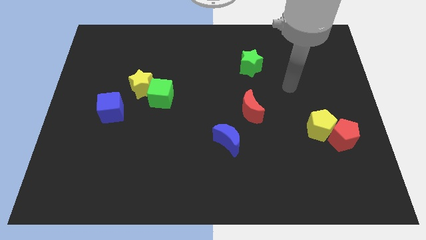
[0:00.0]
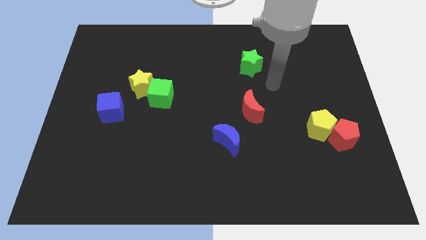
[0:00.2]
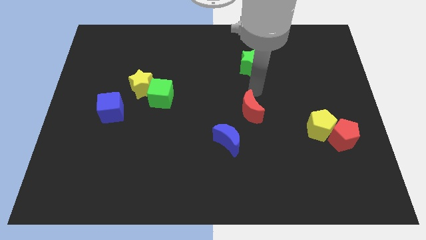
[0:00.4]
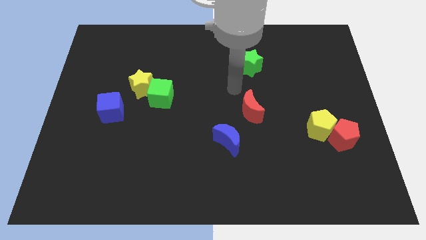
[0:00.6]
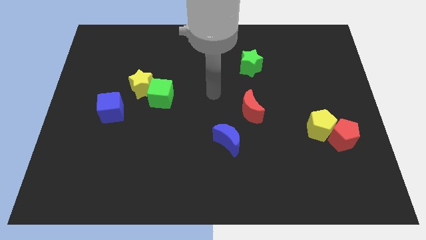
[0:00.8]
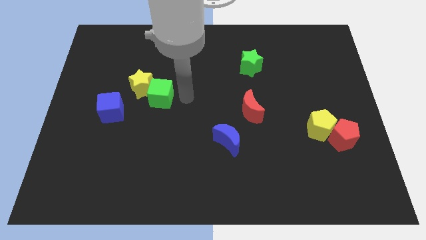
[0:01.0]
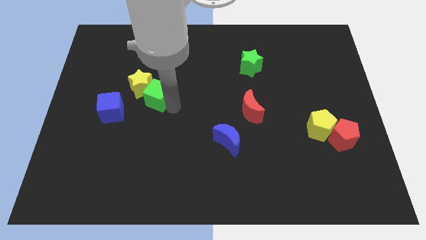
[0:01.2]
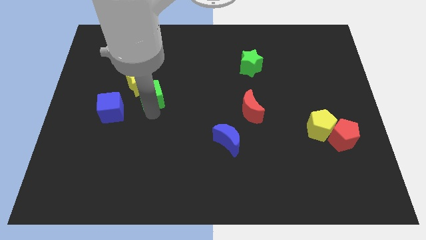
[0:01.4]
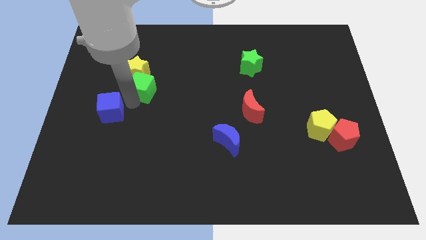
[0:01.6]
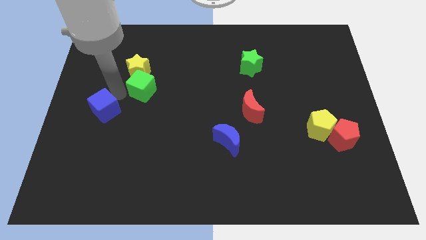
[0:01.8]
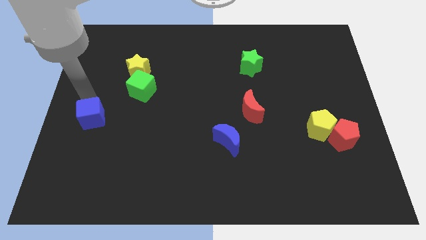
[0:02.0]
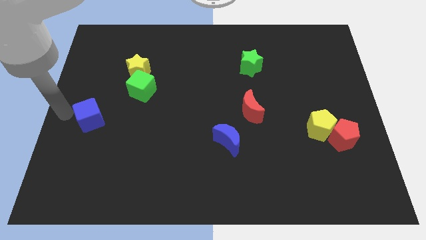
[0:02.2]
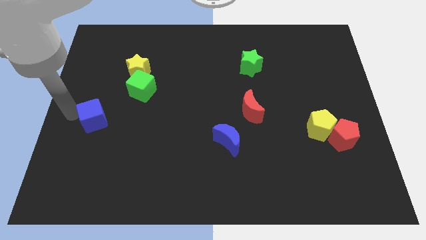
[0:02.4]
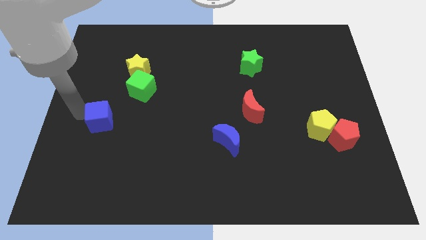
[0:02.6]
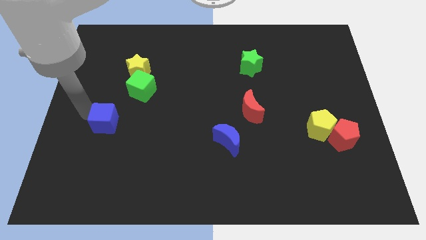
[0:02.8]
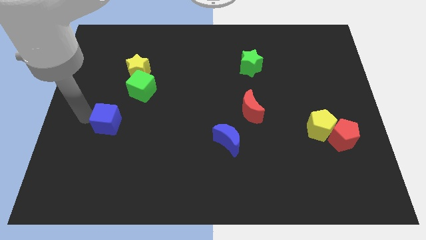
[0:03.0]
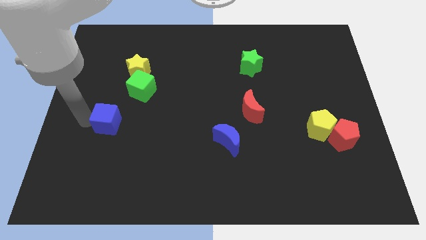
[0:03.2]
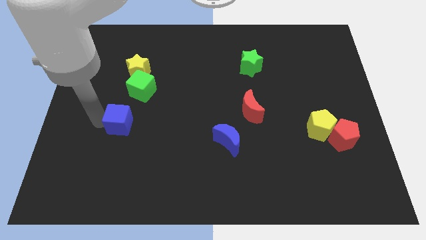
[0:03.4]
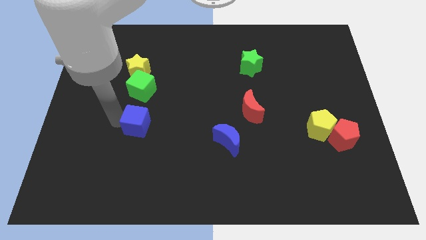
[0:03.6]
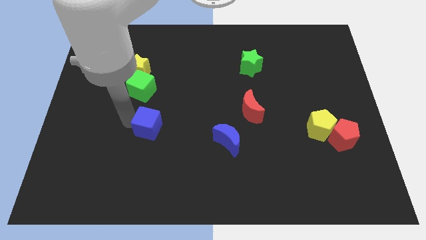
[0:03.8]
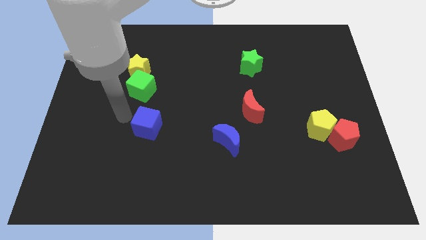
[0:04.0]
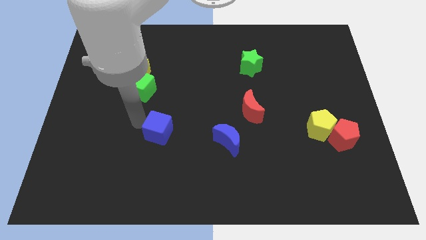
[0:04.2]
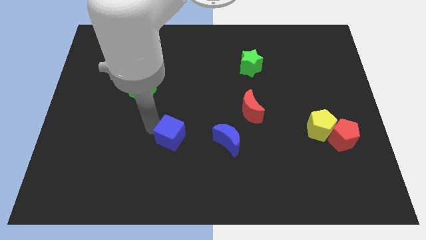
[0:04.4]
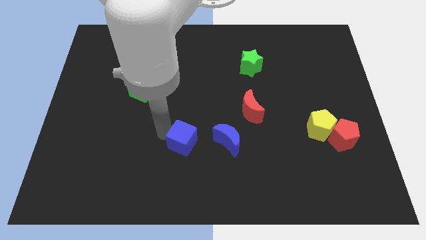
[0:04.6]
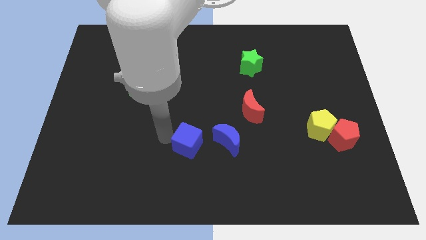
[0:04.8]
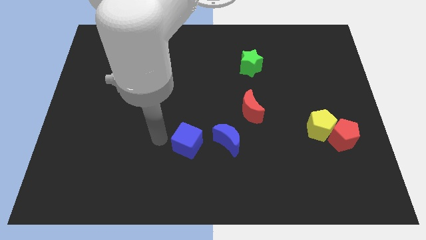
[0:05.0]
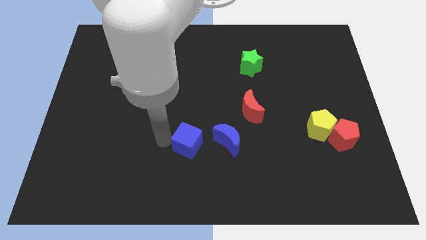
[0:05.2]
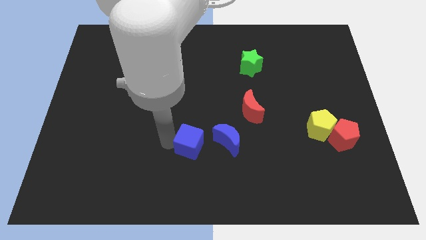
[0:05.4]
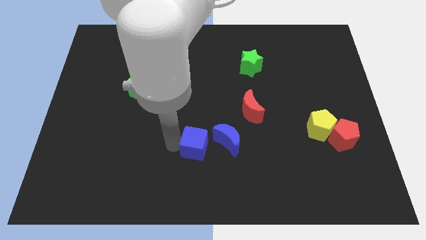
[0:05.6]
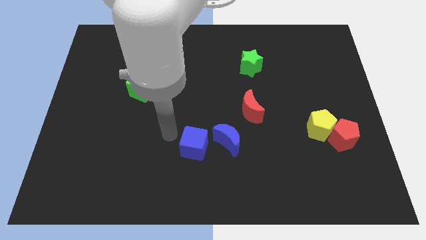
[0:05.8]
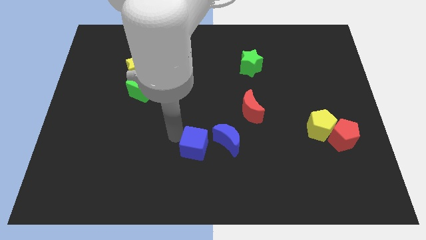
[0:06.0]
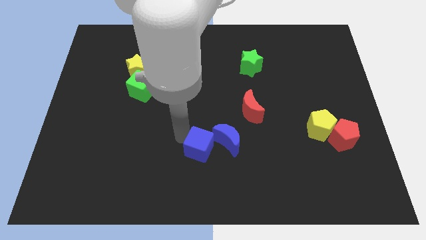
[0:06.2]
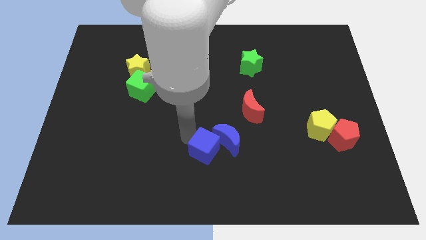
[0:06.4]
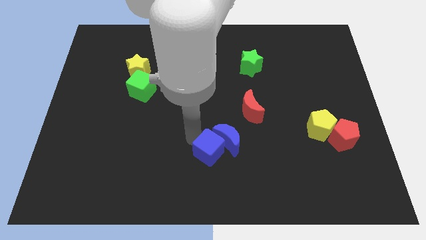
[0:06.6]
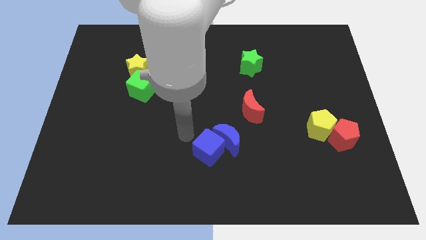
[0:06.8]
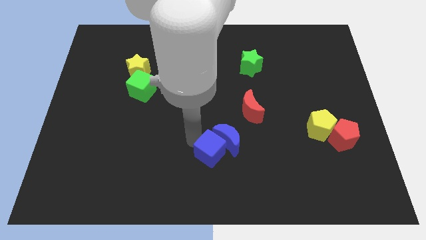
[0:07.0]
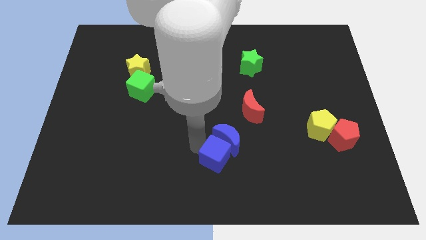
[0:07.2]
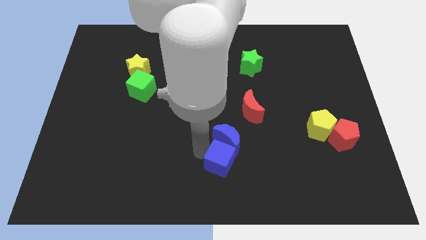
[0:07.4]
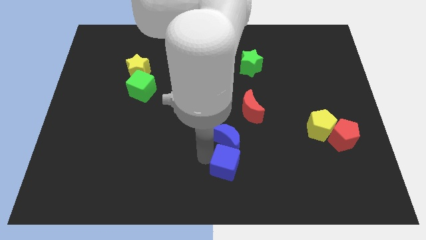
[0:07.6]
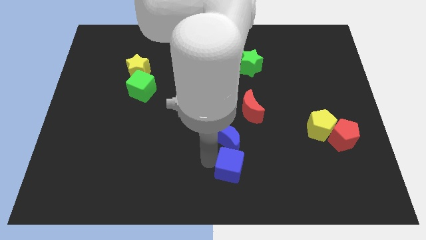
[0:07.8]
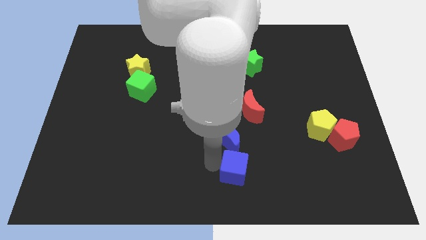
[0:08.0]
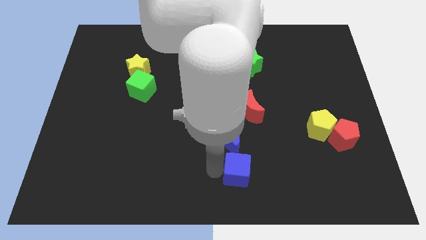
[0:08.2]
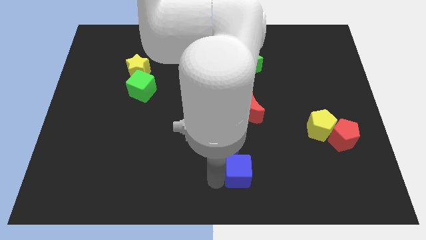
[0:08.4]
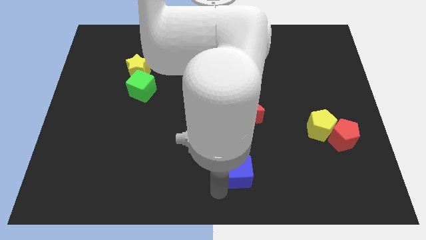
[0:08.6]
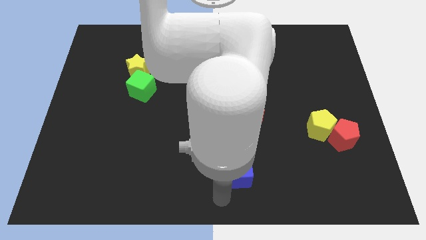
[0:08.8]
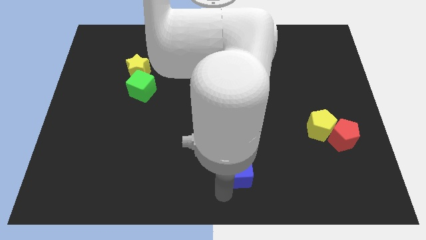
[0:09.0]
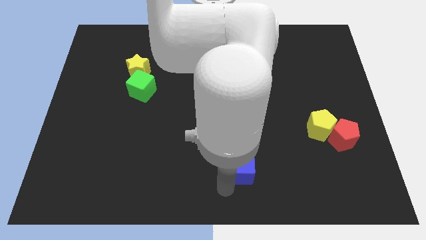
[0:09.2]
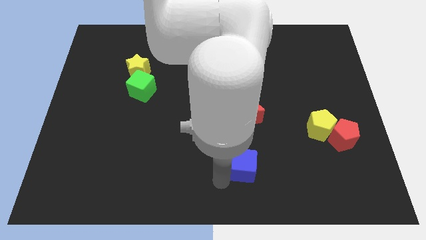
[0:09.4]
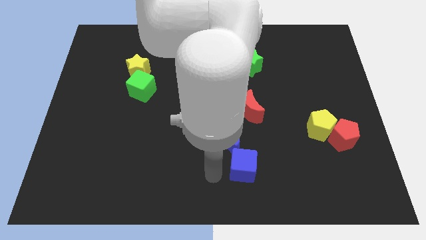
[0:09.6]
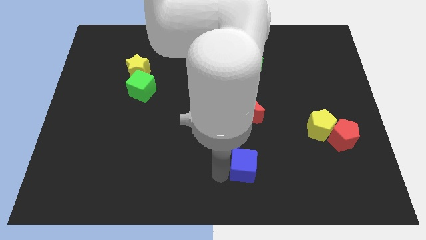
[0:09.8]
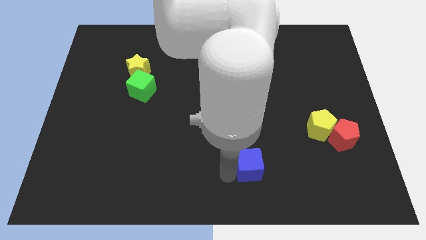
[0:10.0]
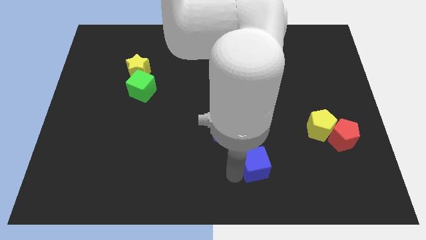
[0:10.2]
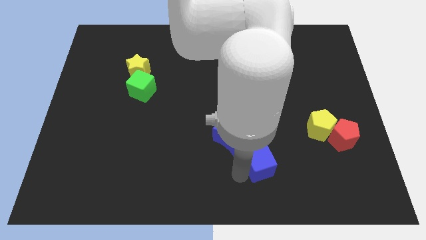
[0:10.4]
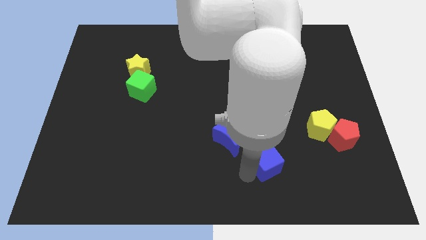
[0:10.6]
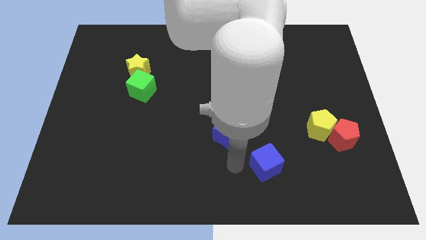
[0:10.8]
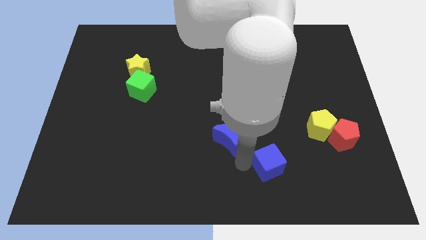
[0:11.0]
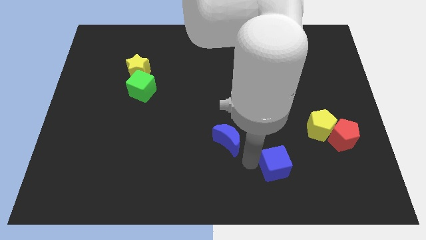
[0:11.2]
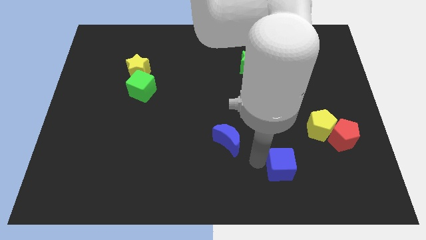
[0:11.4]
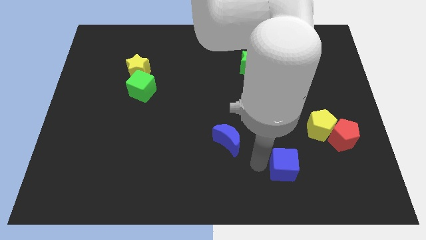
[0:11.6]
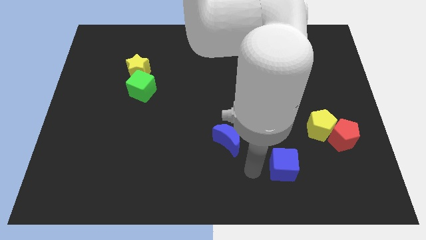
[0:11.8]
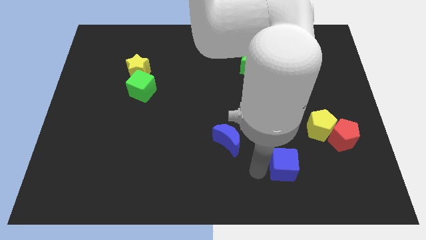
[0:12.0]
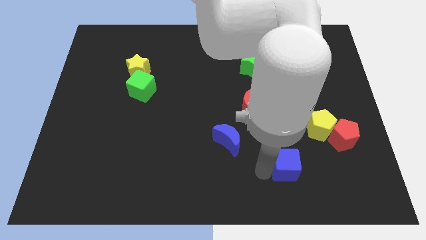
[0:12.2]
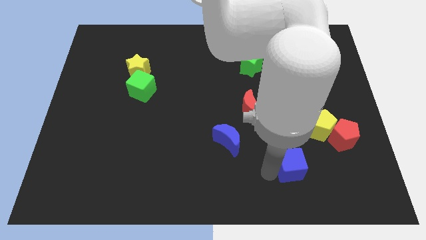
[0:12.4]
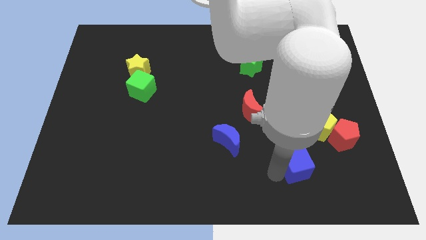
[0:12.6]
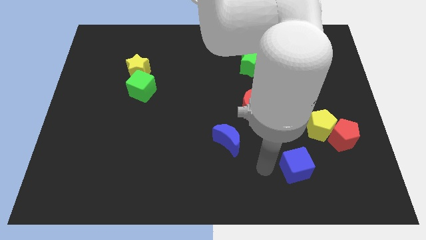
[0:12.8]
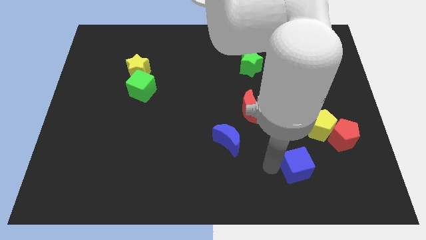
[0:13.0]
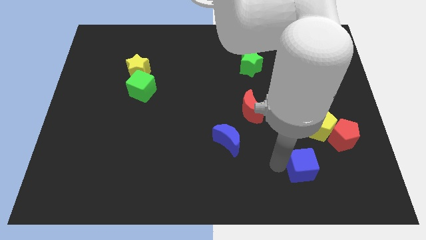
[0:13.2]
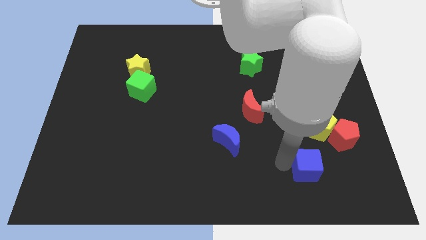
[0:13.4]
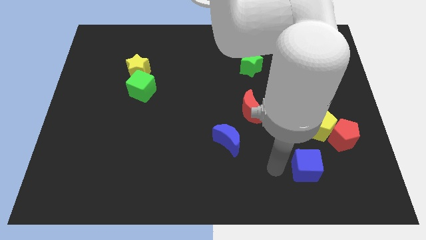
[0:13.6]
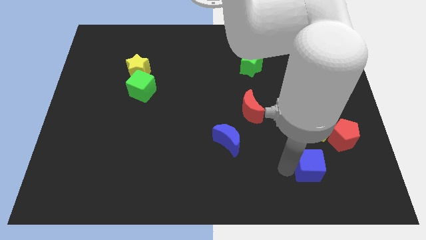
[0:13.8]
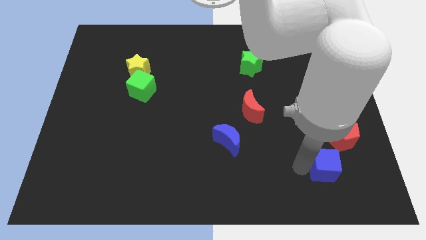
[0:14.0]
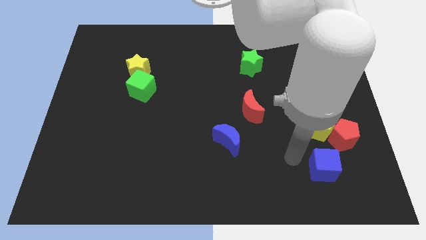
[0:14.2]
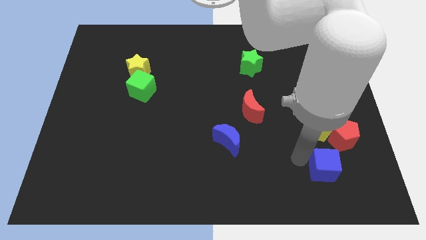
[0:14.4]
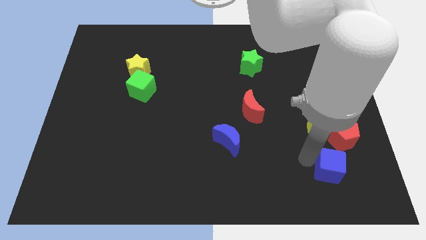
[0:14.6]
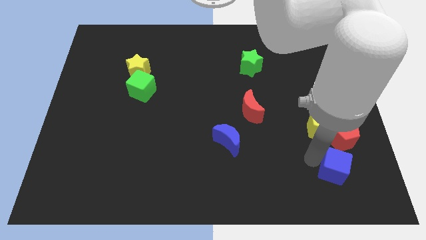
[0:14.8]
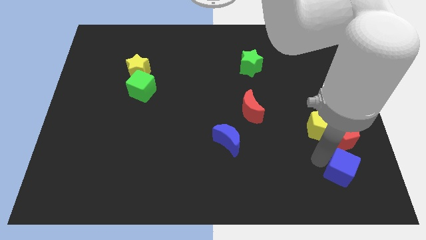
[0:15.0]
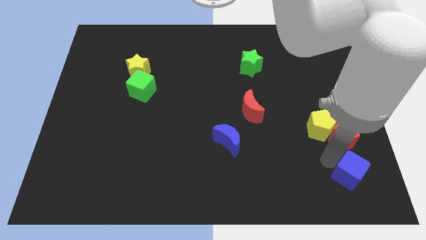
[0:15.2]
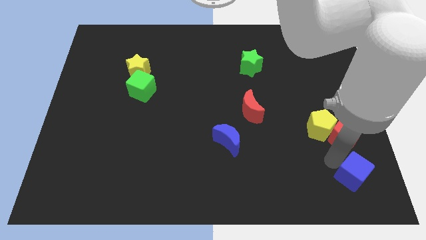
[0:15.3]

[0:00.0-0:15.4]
slide the blue cube to the bottom right of the board

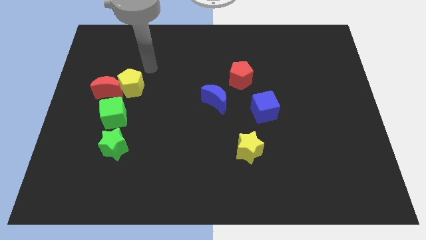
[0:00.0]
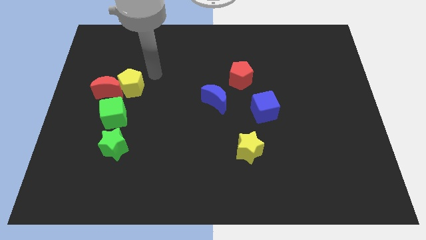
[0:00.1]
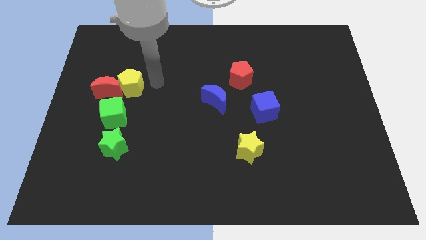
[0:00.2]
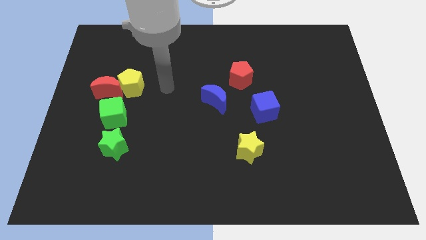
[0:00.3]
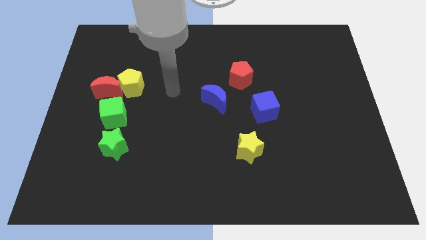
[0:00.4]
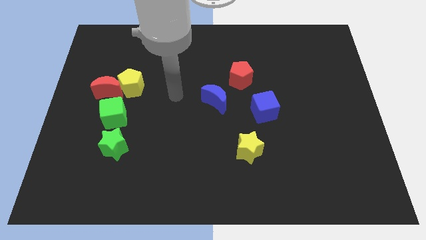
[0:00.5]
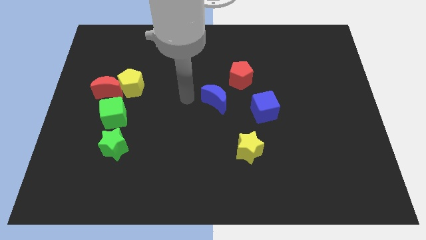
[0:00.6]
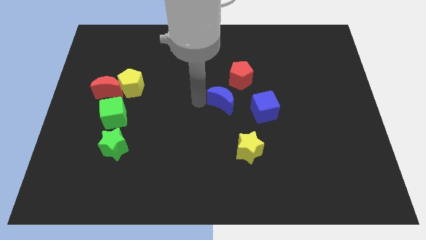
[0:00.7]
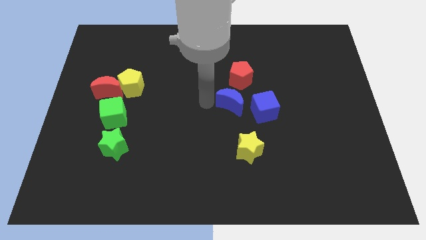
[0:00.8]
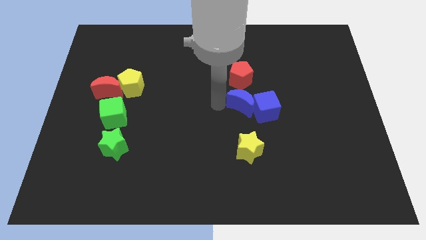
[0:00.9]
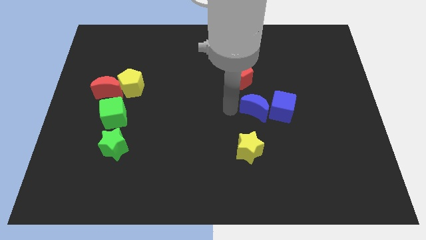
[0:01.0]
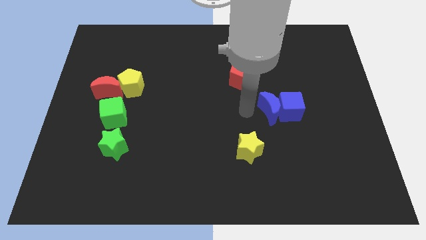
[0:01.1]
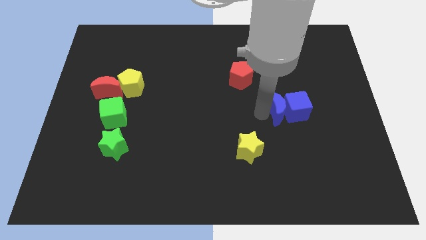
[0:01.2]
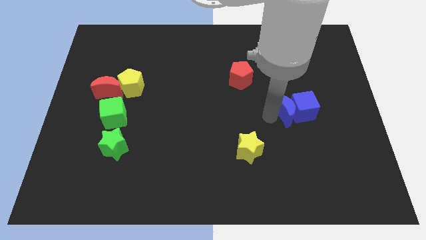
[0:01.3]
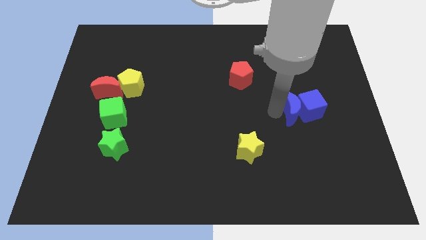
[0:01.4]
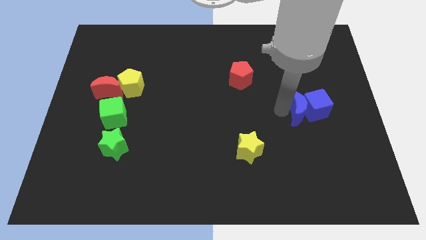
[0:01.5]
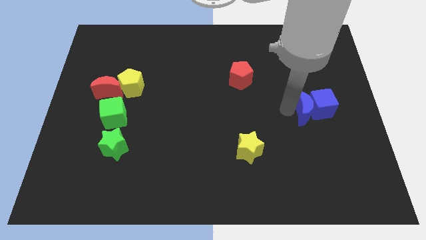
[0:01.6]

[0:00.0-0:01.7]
slide the blue cube to the right side of the board
